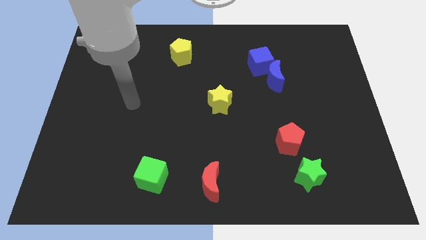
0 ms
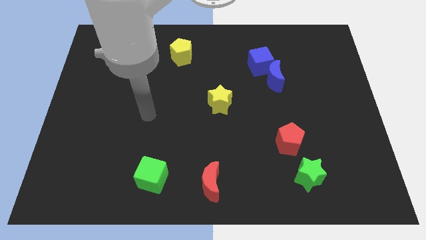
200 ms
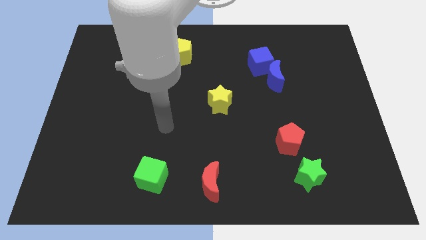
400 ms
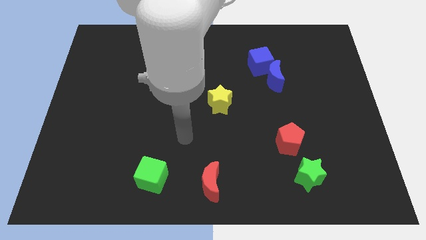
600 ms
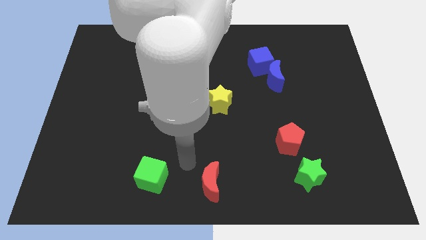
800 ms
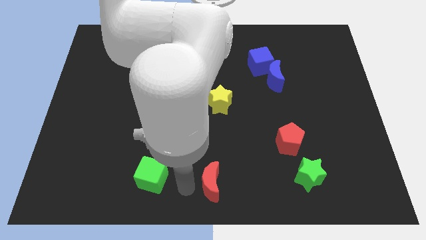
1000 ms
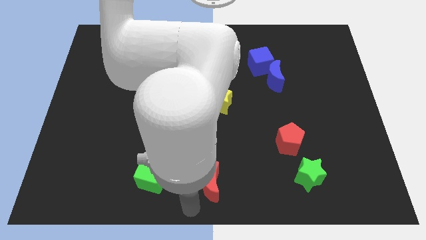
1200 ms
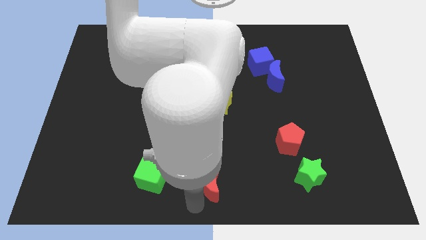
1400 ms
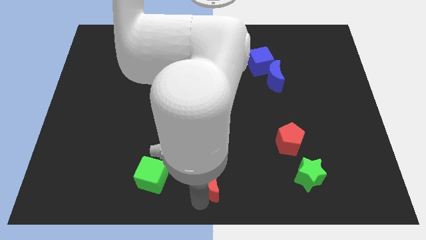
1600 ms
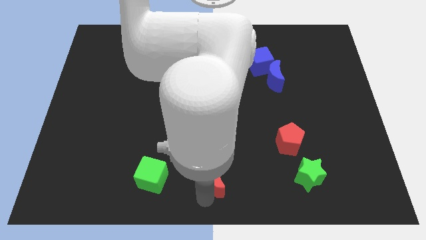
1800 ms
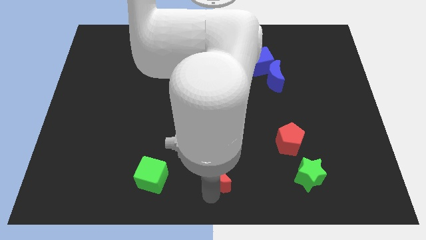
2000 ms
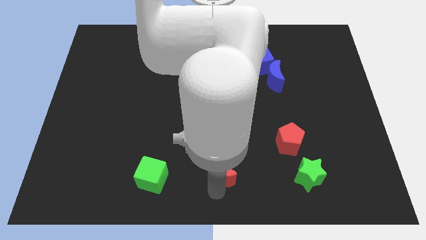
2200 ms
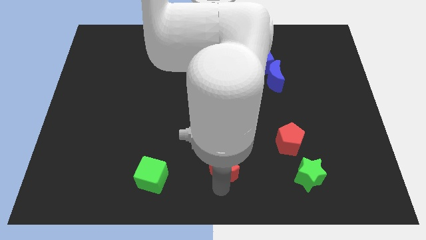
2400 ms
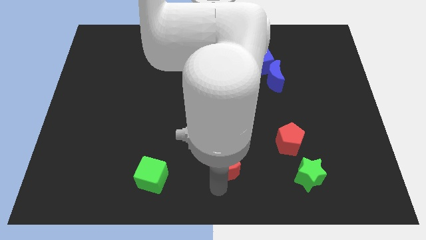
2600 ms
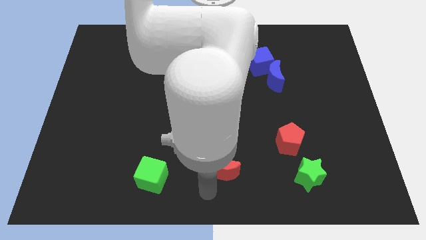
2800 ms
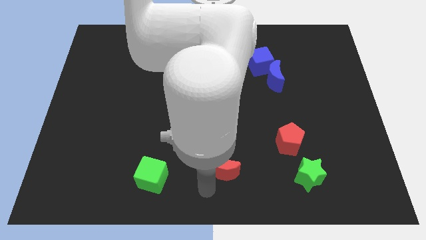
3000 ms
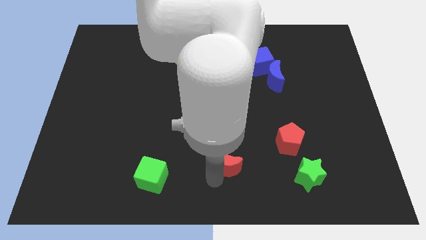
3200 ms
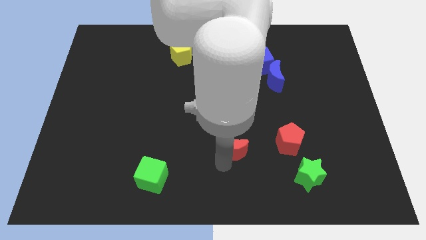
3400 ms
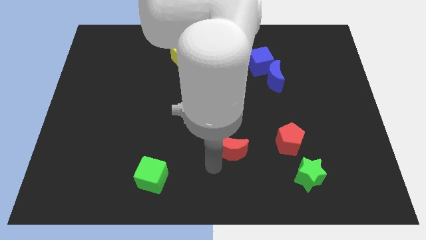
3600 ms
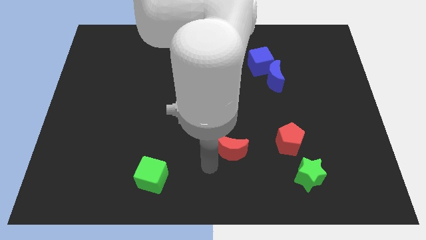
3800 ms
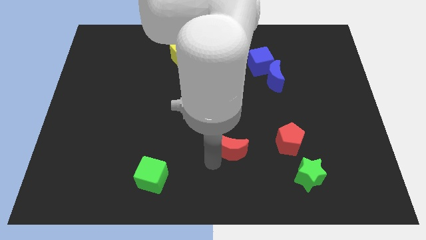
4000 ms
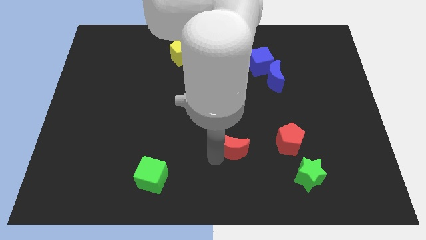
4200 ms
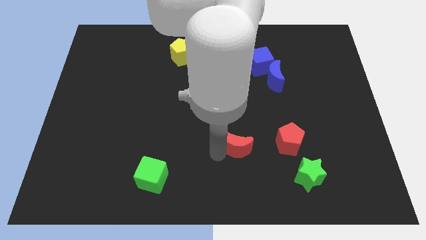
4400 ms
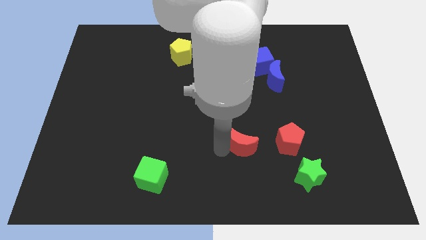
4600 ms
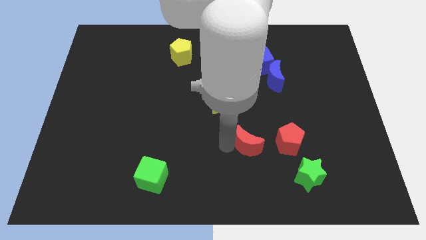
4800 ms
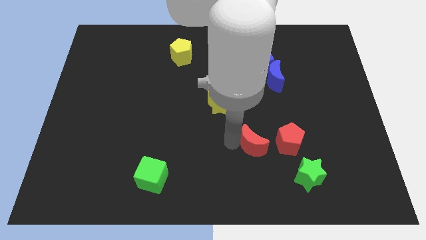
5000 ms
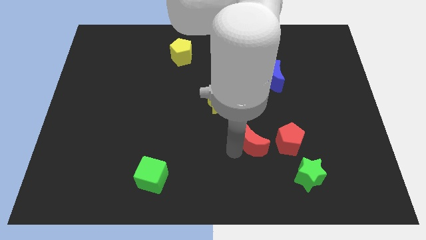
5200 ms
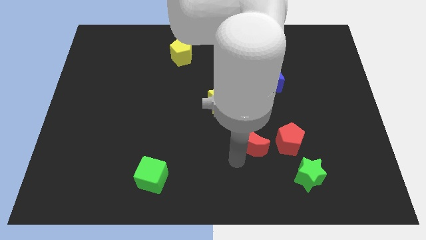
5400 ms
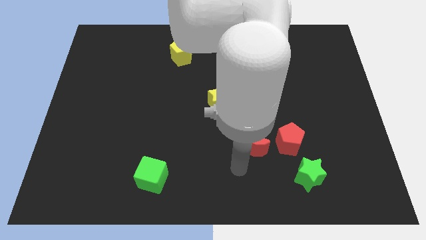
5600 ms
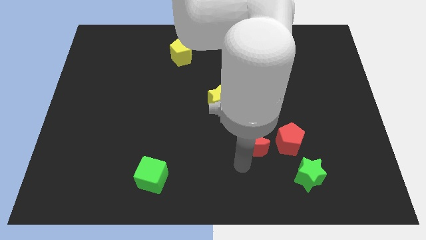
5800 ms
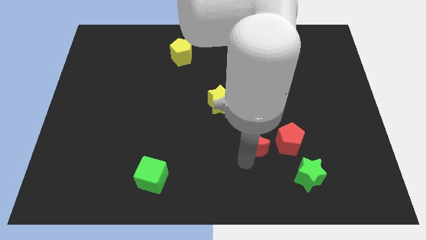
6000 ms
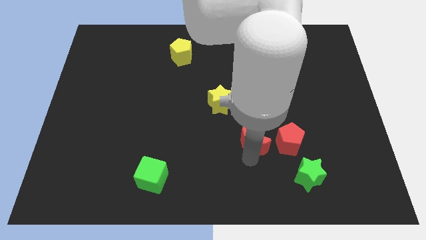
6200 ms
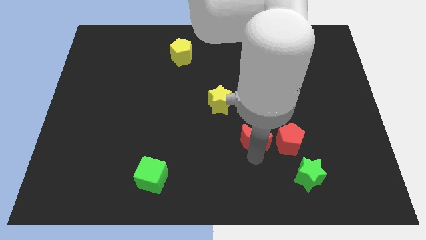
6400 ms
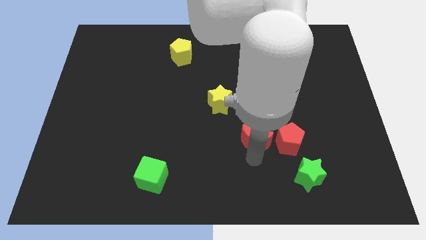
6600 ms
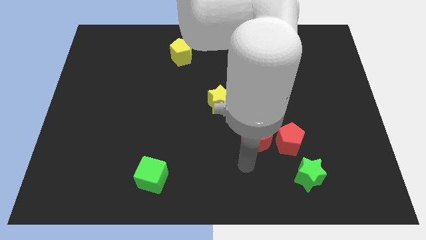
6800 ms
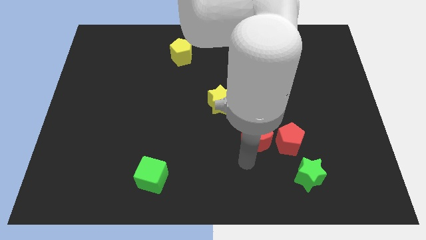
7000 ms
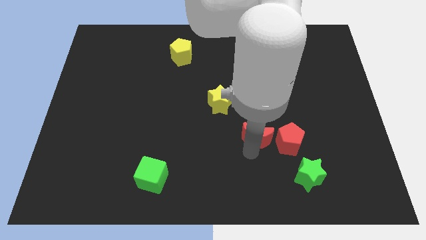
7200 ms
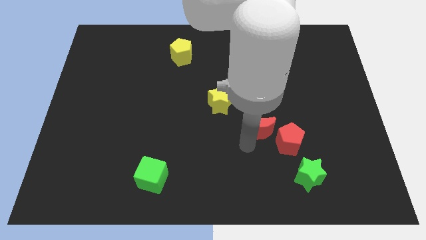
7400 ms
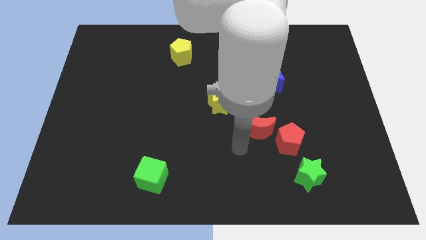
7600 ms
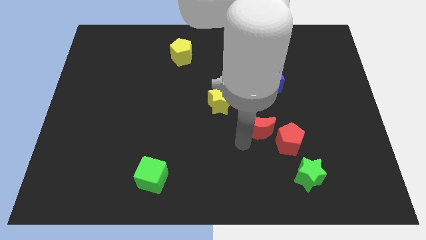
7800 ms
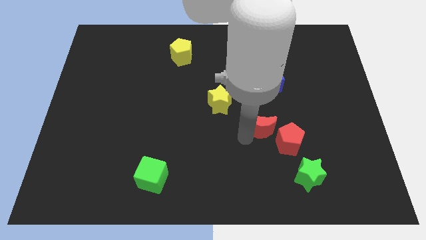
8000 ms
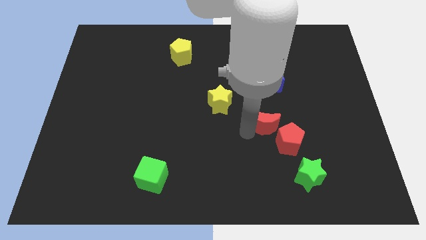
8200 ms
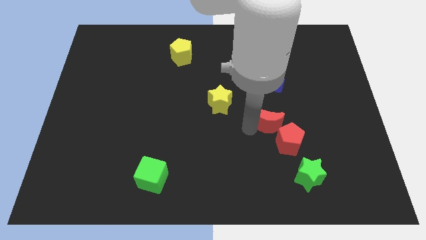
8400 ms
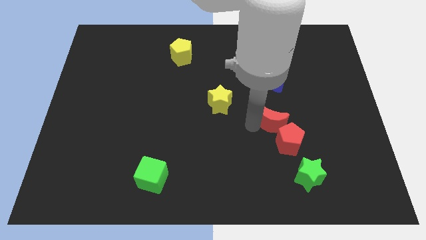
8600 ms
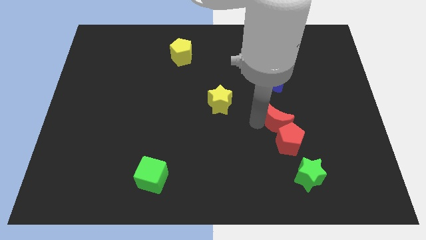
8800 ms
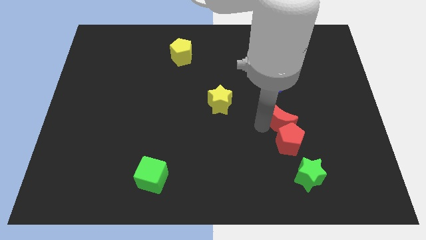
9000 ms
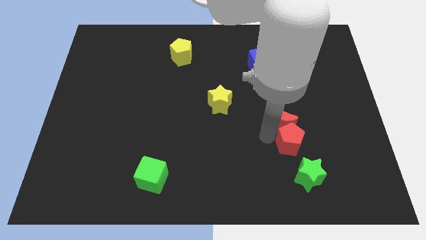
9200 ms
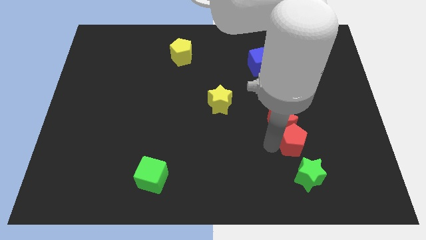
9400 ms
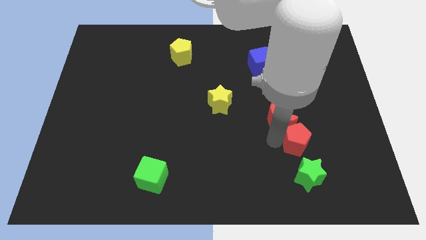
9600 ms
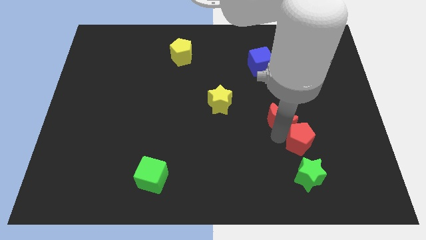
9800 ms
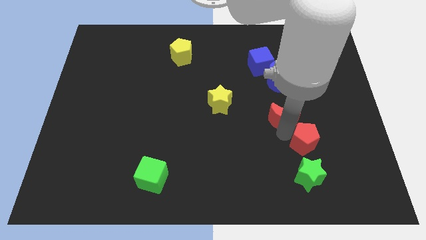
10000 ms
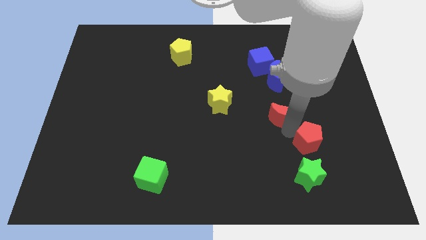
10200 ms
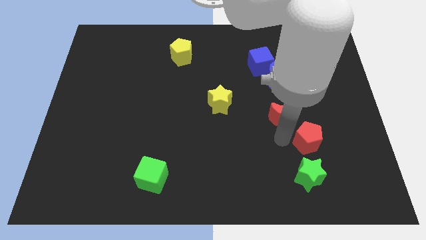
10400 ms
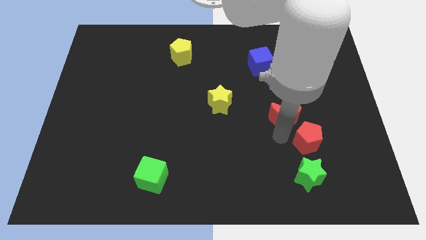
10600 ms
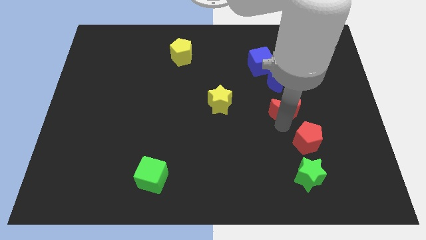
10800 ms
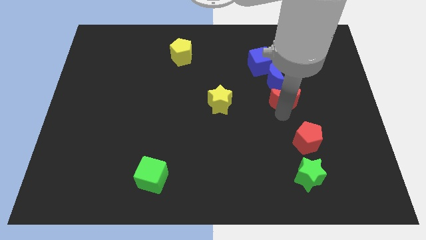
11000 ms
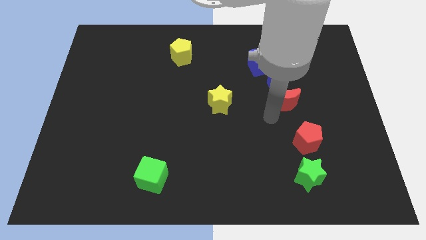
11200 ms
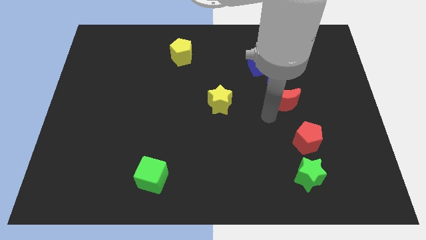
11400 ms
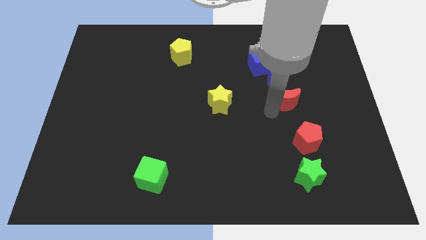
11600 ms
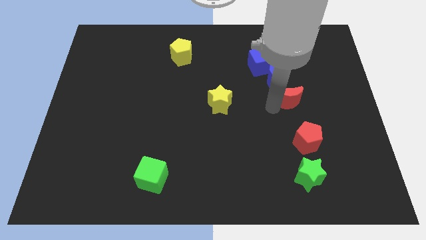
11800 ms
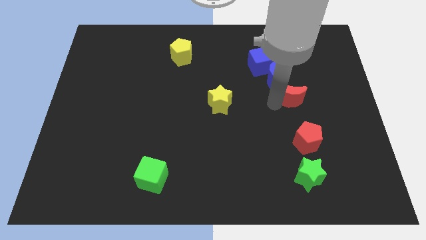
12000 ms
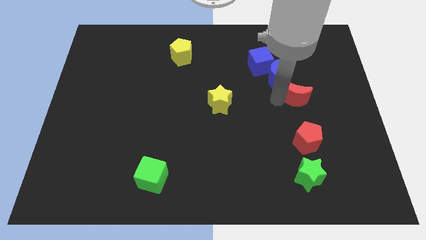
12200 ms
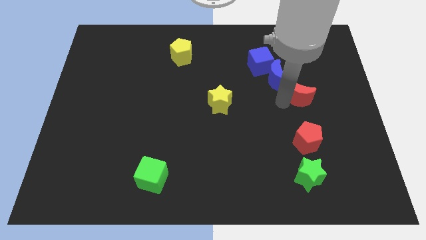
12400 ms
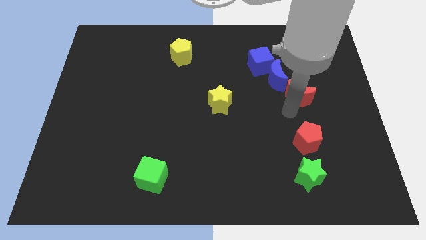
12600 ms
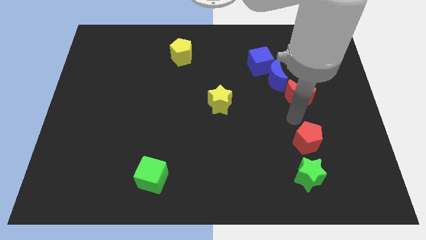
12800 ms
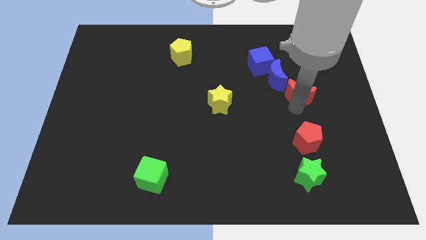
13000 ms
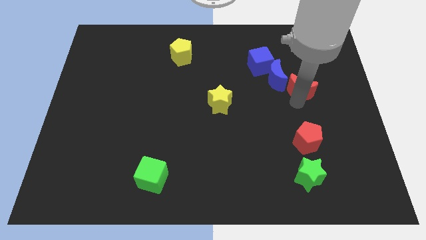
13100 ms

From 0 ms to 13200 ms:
slide the red moon to the bottom right of the blue cube
